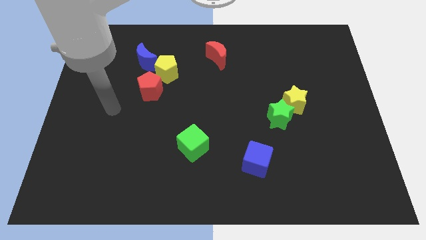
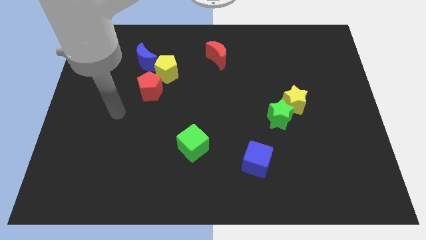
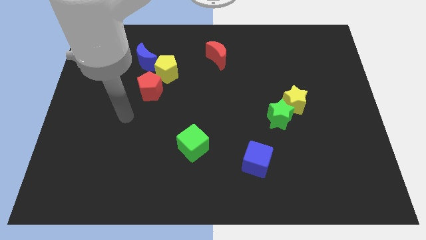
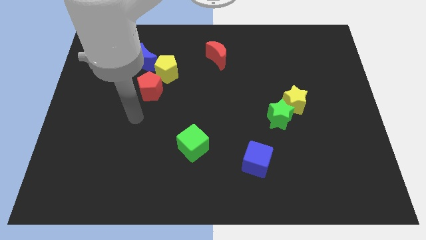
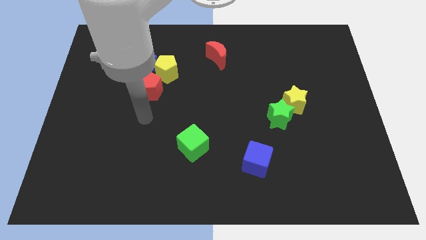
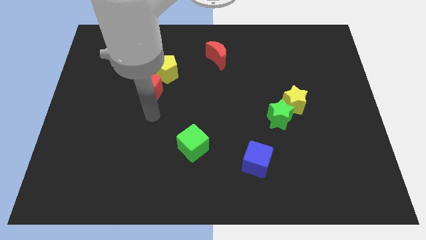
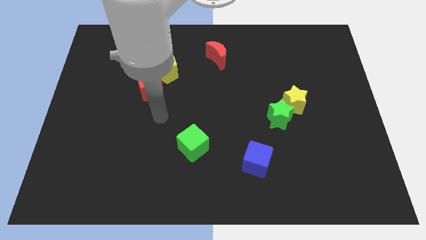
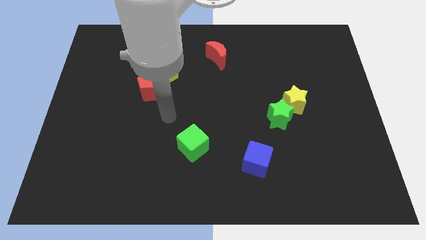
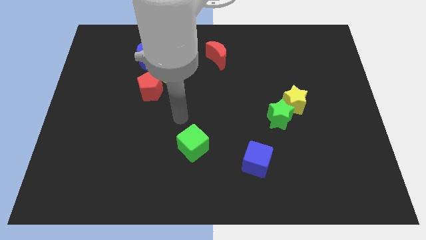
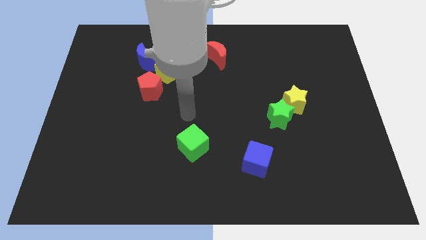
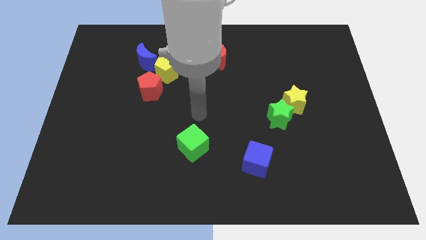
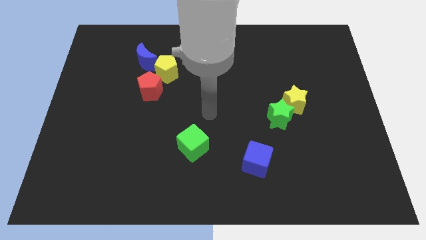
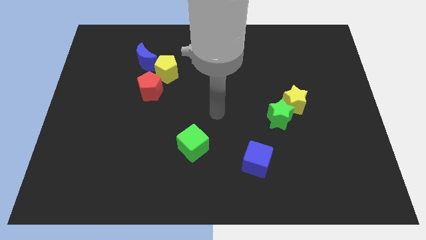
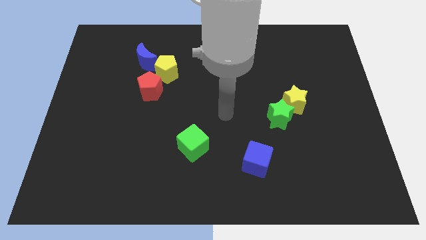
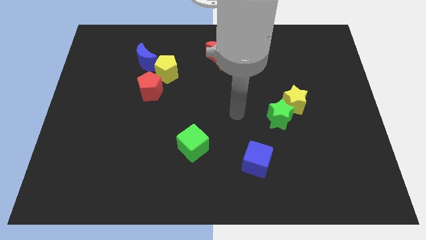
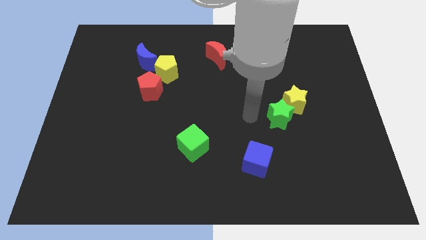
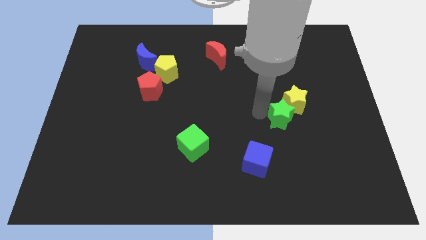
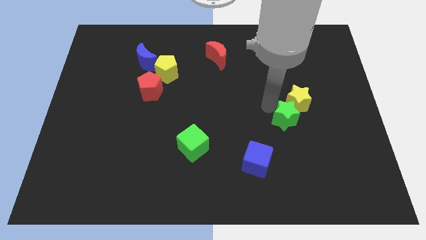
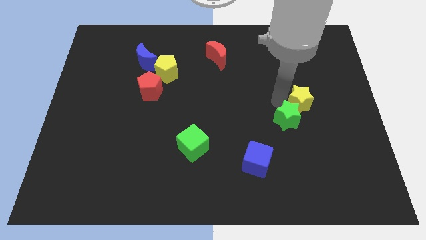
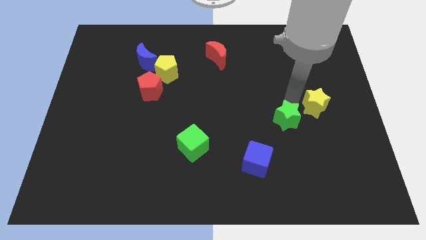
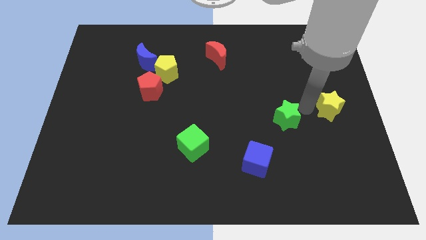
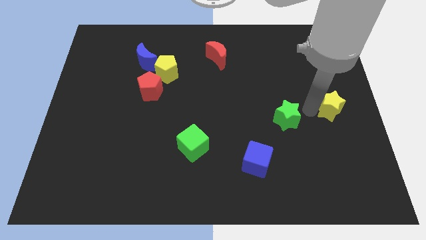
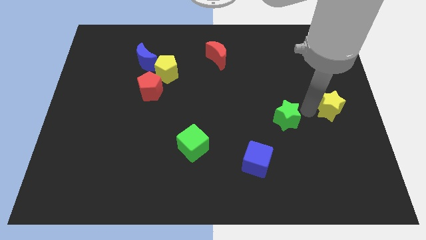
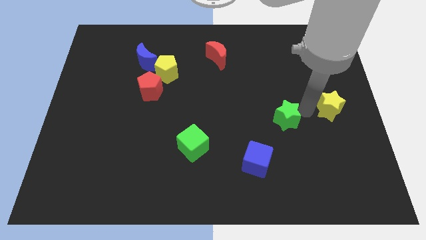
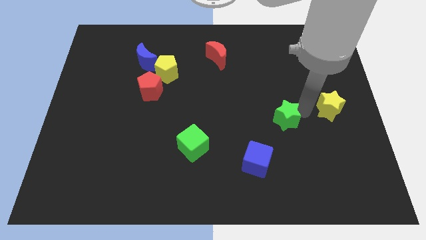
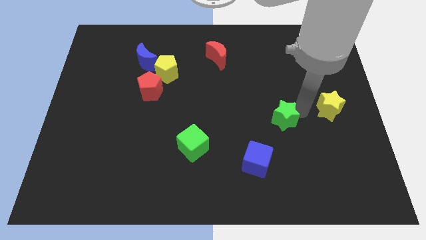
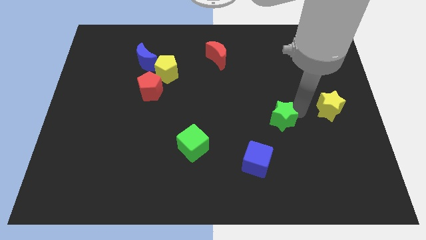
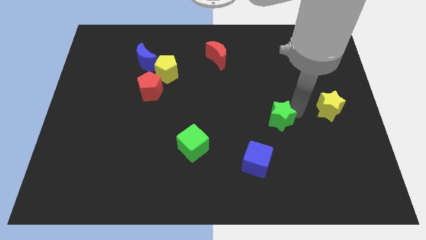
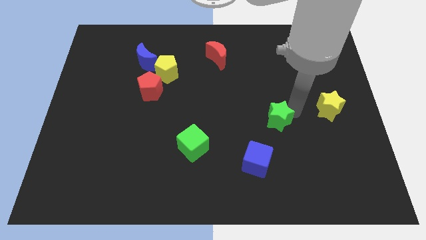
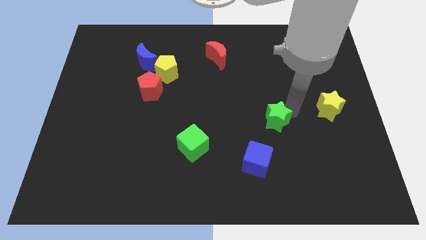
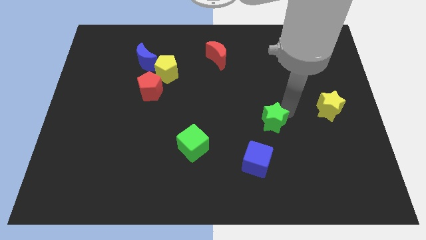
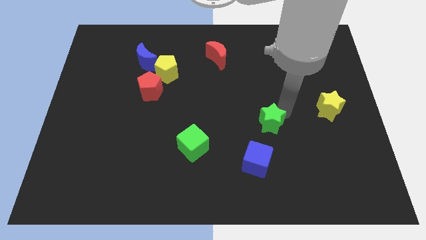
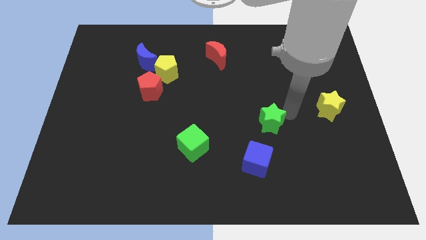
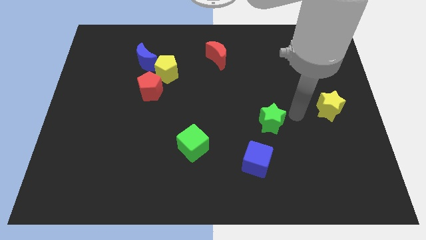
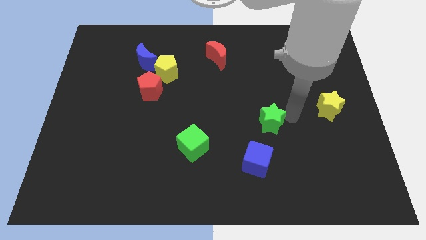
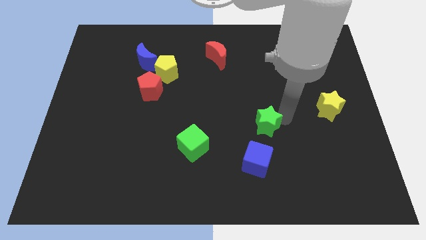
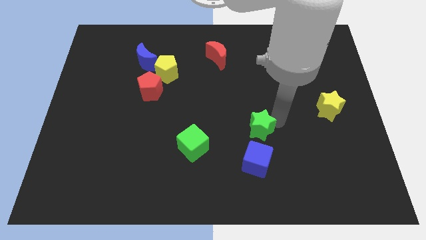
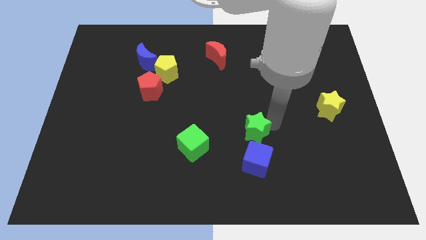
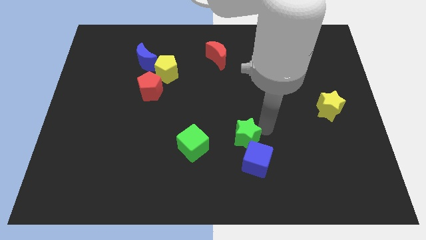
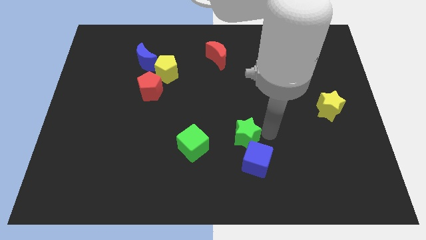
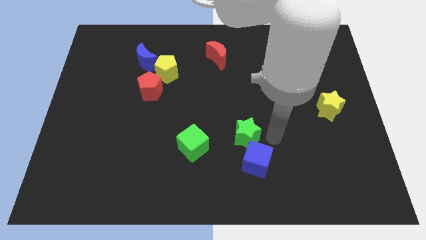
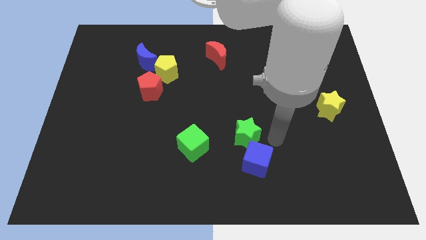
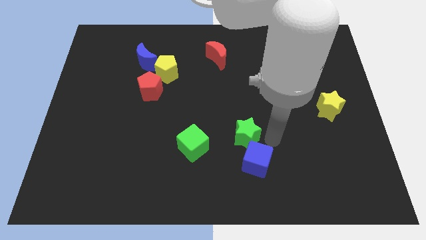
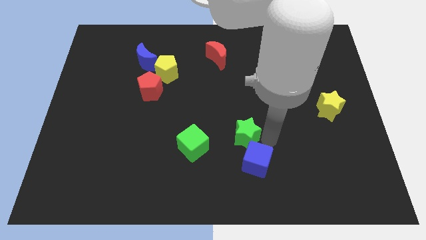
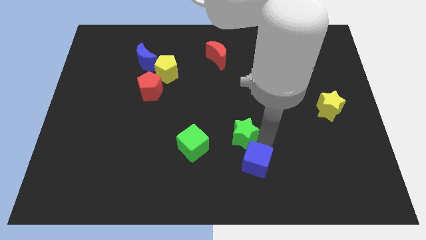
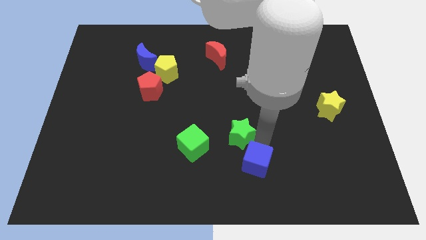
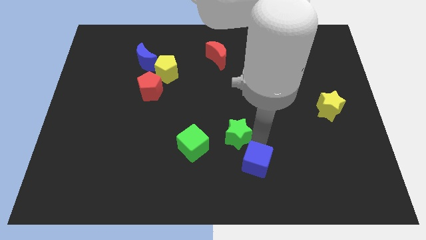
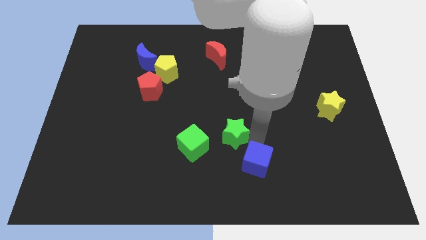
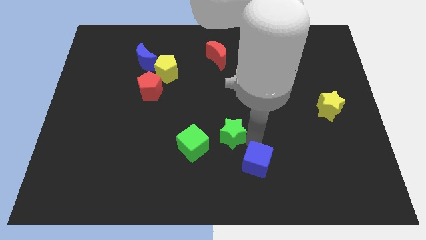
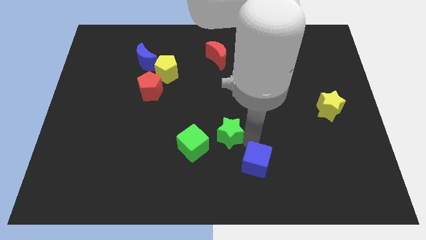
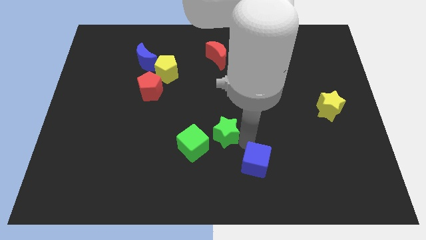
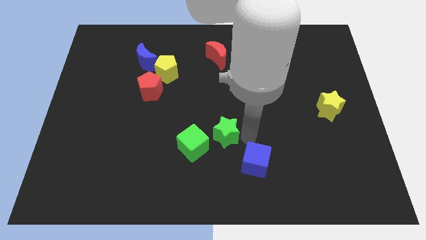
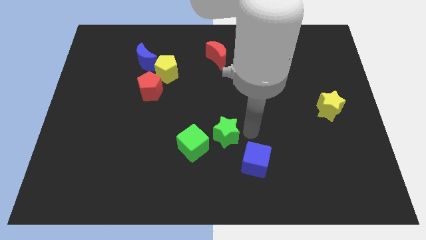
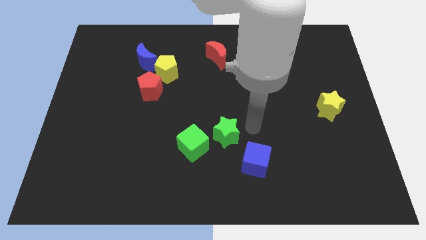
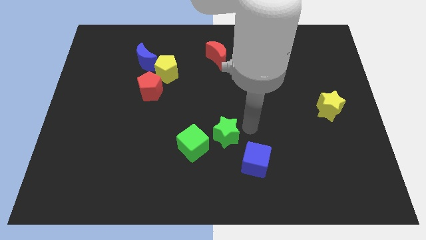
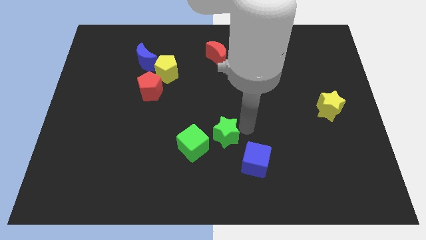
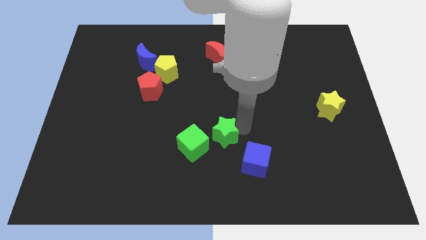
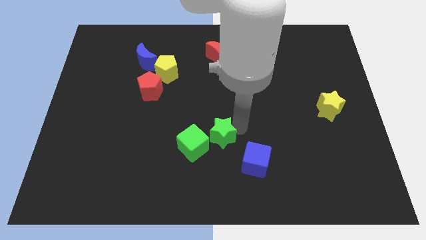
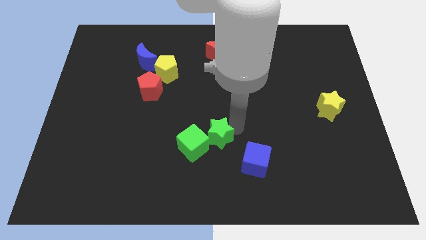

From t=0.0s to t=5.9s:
put the green star towards the green cube

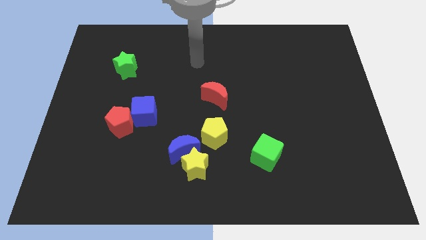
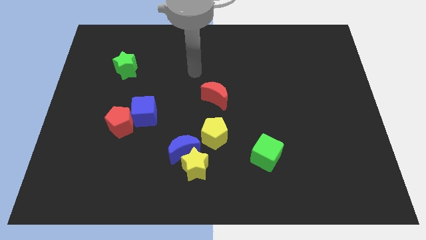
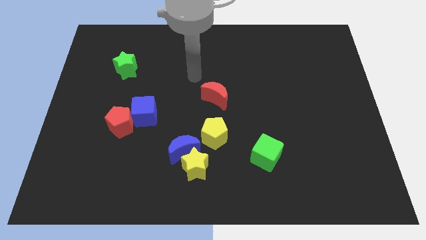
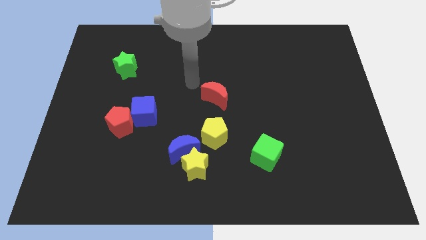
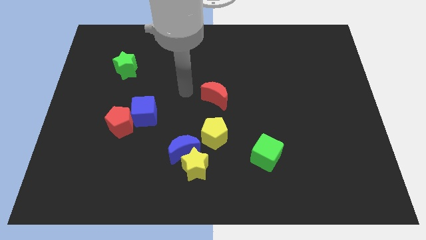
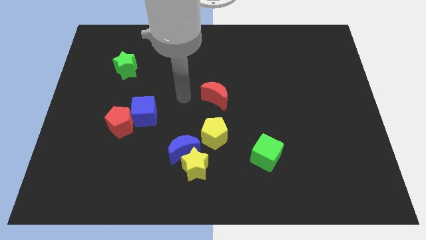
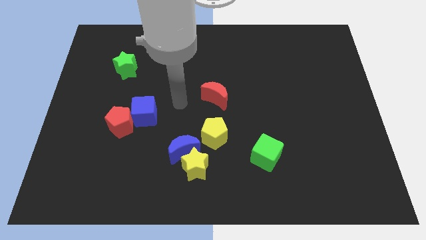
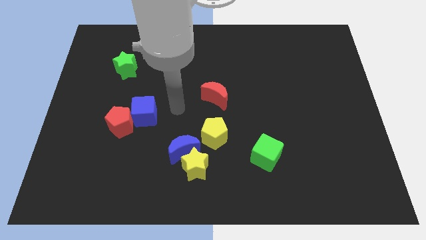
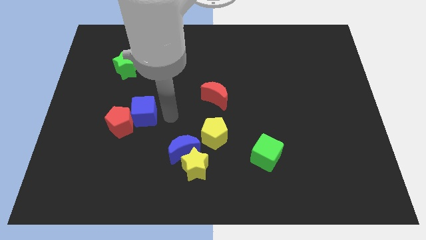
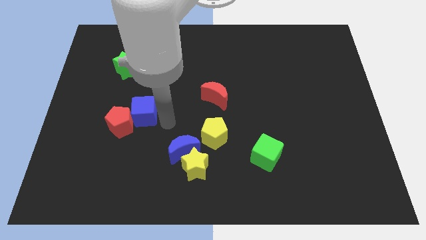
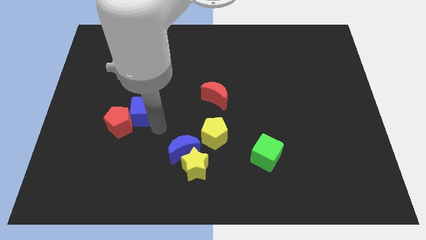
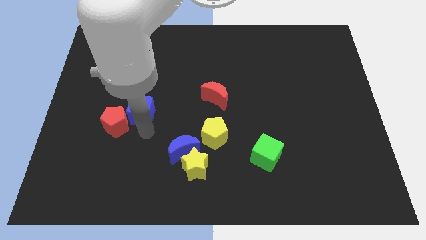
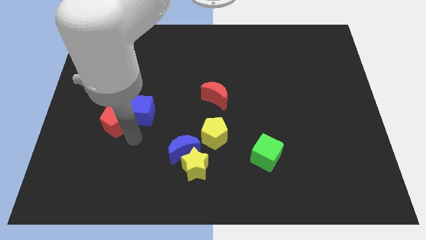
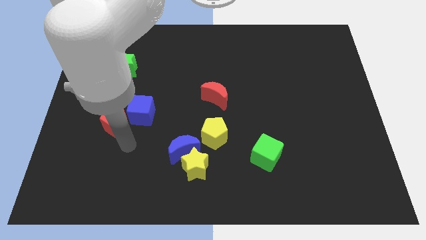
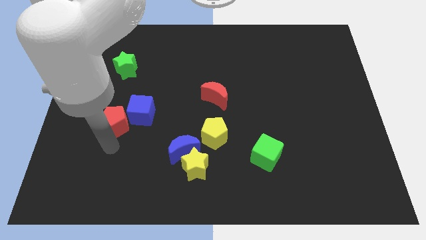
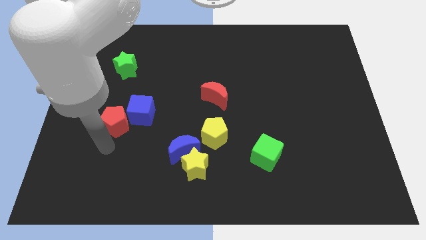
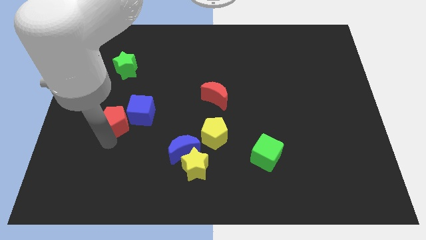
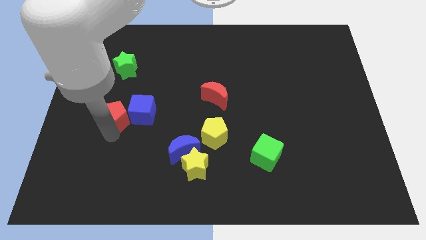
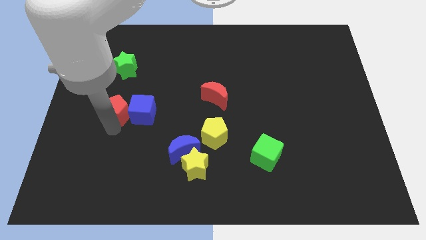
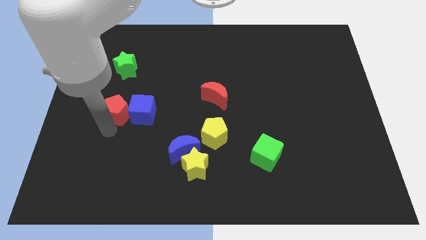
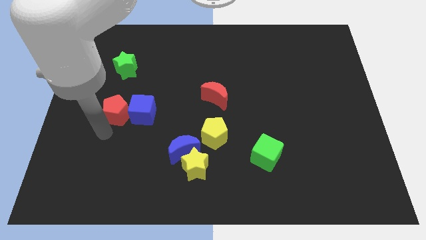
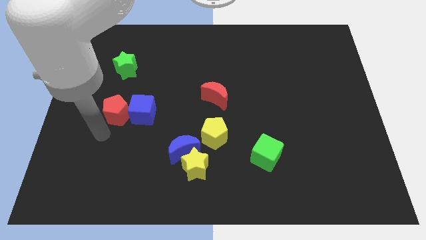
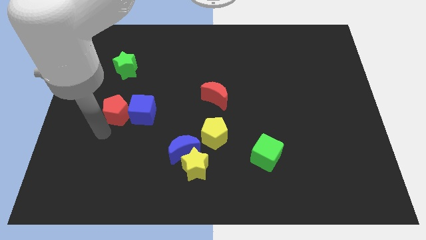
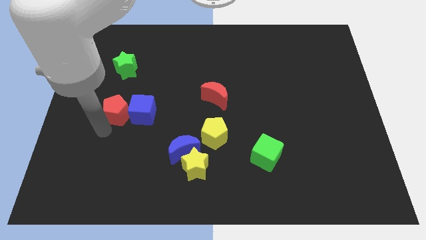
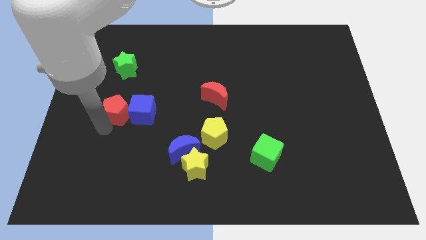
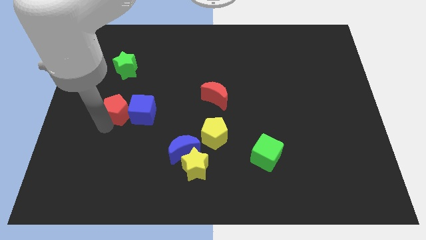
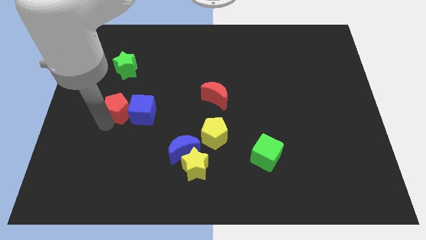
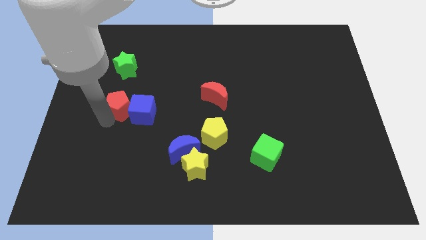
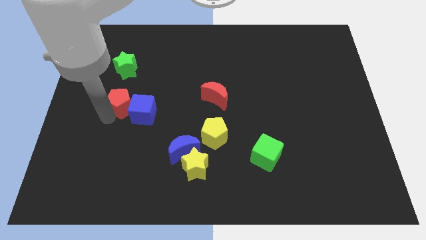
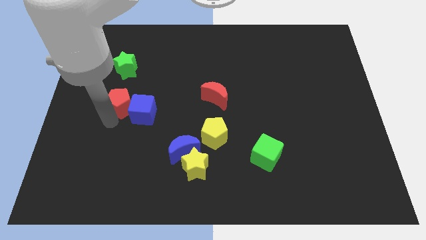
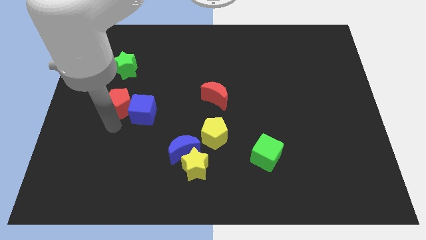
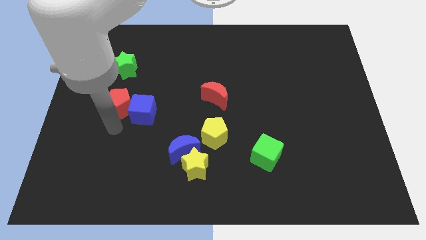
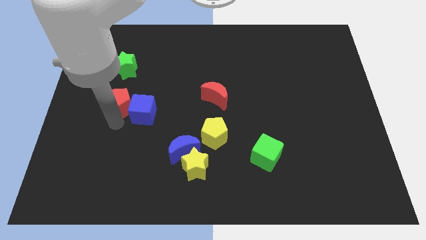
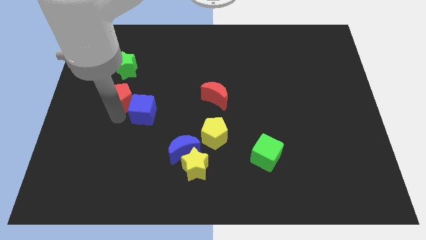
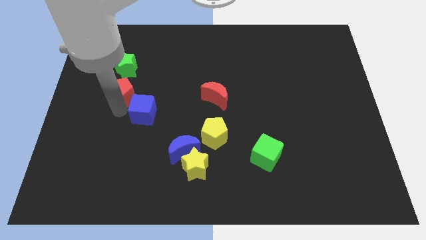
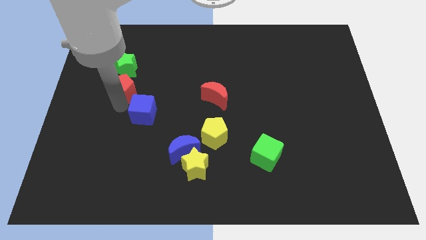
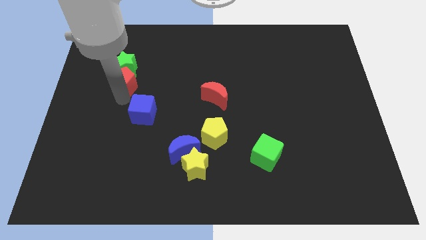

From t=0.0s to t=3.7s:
slide the red pentagon close to the green star
